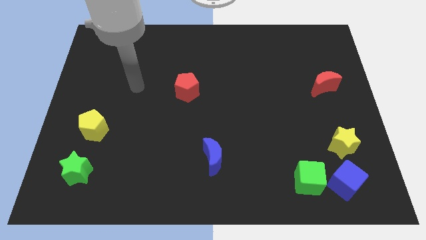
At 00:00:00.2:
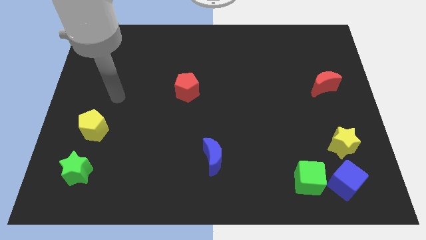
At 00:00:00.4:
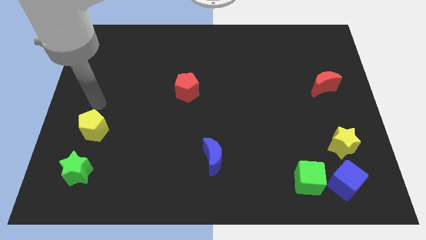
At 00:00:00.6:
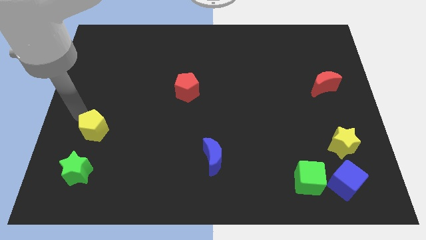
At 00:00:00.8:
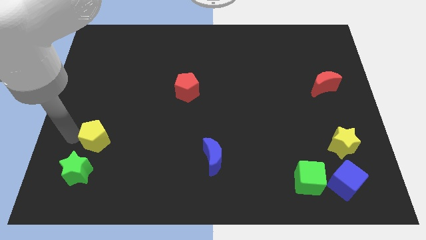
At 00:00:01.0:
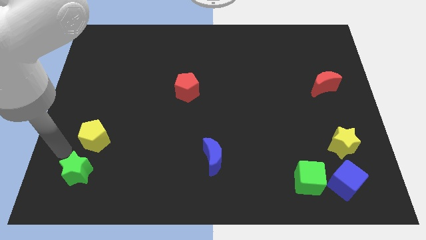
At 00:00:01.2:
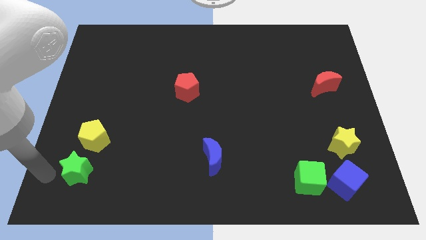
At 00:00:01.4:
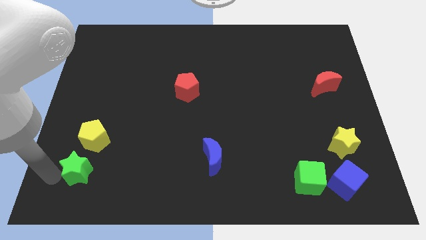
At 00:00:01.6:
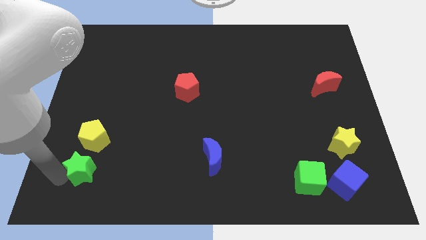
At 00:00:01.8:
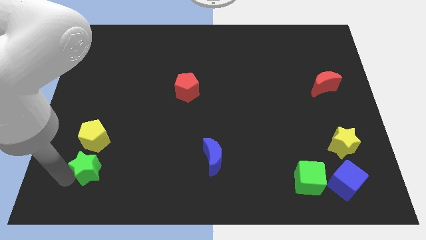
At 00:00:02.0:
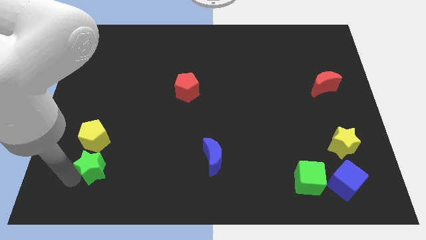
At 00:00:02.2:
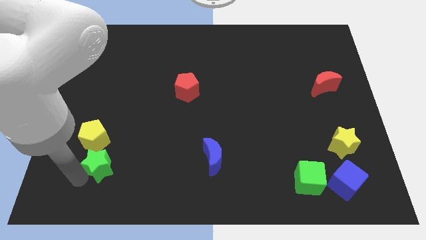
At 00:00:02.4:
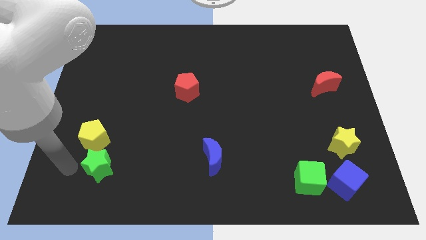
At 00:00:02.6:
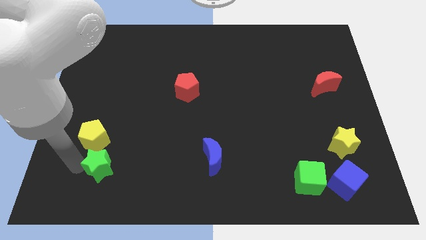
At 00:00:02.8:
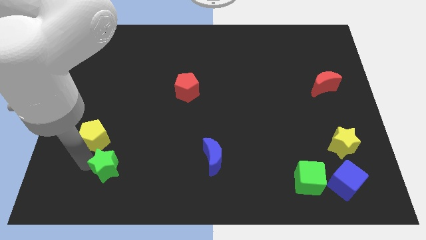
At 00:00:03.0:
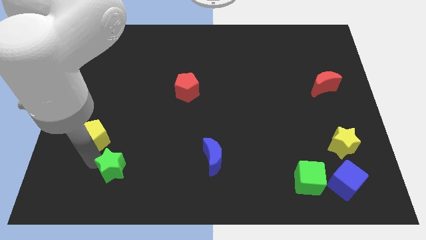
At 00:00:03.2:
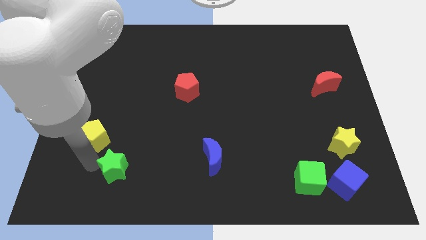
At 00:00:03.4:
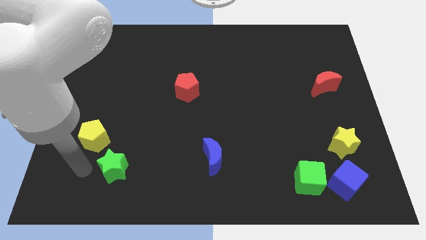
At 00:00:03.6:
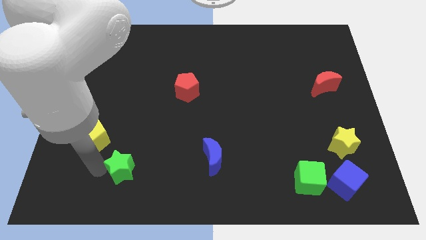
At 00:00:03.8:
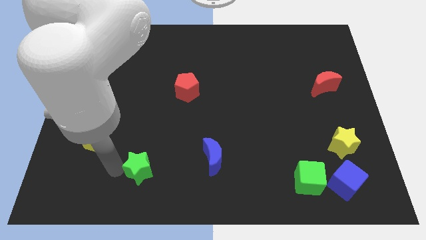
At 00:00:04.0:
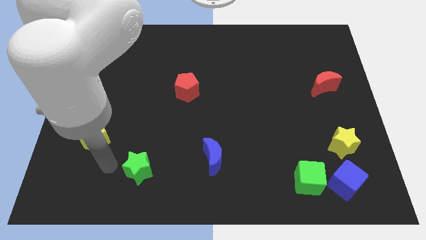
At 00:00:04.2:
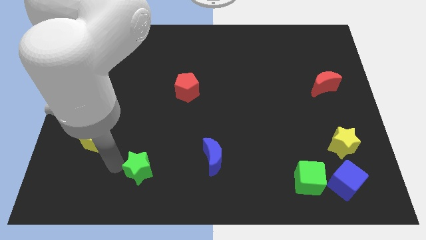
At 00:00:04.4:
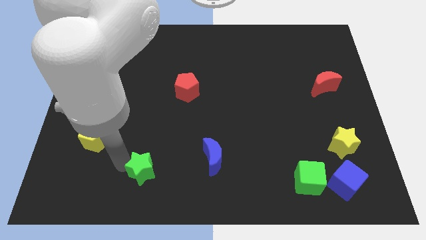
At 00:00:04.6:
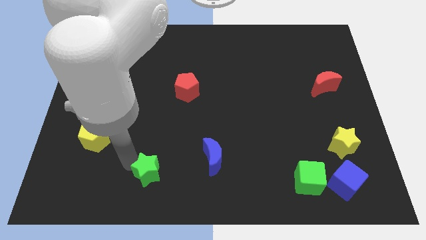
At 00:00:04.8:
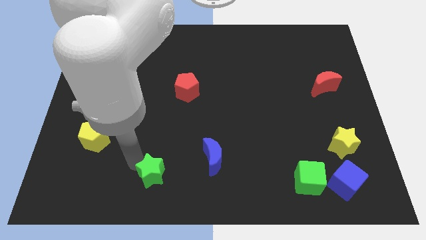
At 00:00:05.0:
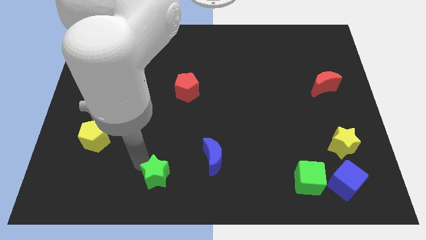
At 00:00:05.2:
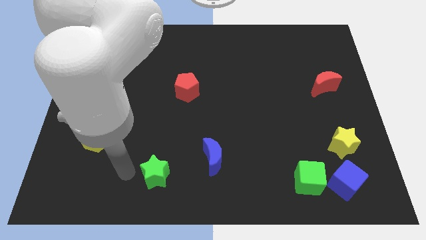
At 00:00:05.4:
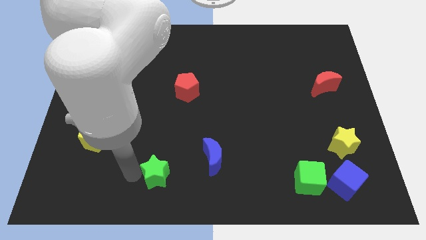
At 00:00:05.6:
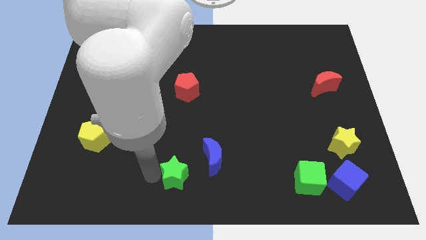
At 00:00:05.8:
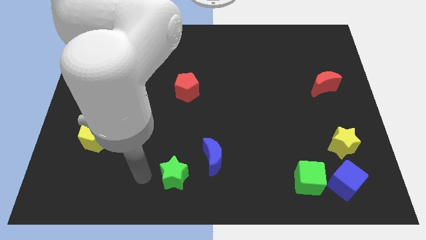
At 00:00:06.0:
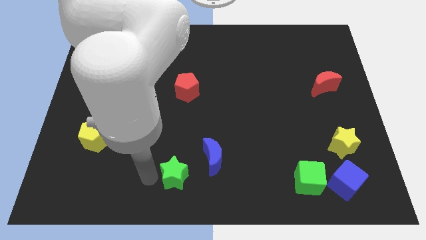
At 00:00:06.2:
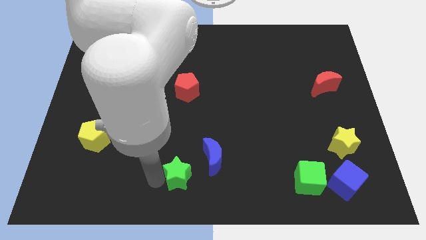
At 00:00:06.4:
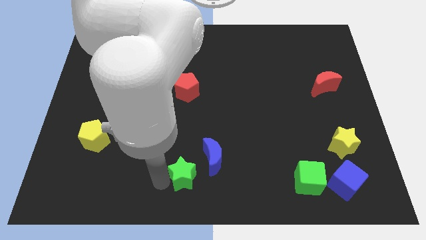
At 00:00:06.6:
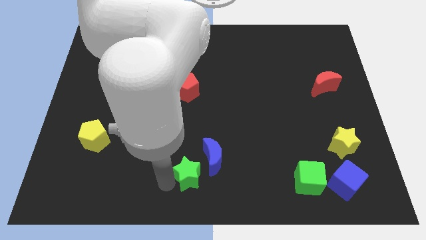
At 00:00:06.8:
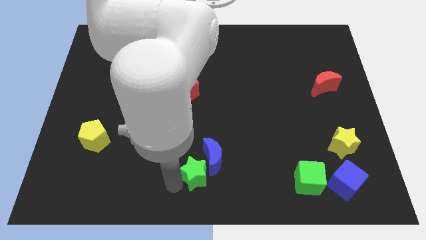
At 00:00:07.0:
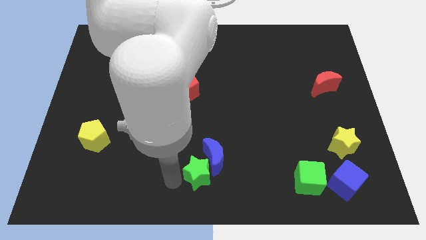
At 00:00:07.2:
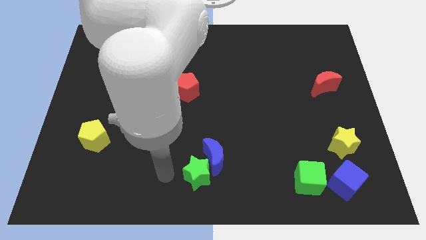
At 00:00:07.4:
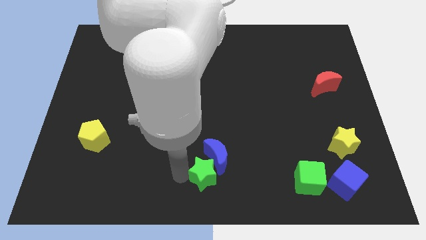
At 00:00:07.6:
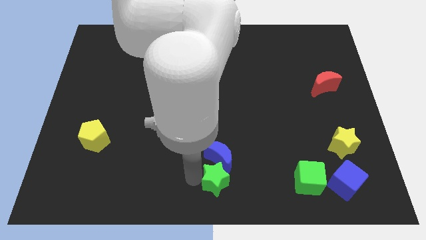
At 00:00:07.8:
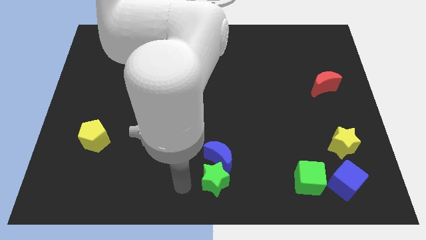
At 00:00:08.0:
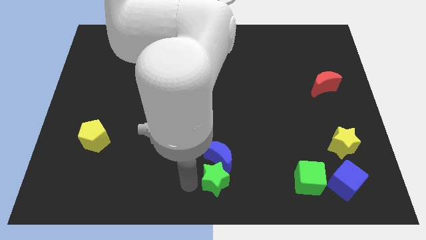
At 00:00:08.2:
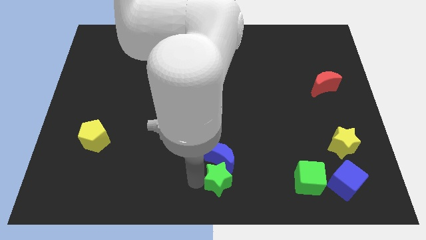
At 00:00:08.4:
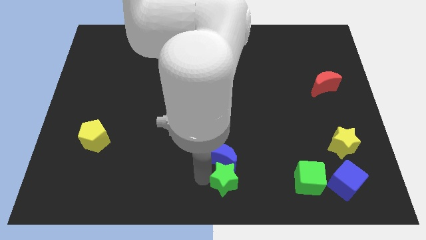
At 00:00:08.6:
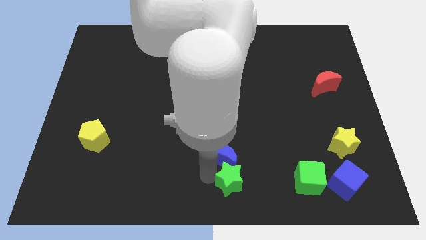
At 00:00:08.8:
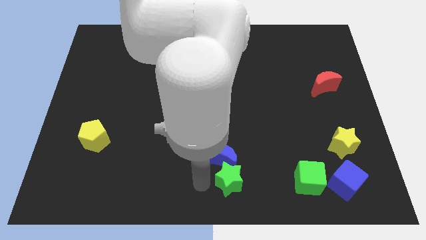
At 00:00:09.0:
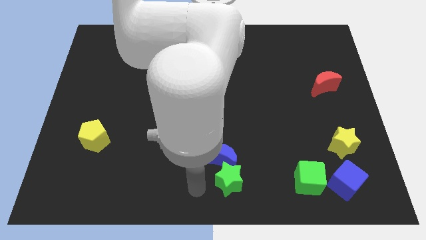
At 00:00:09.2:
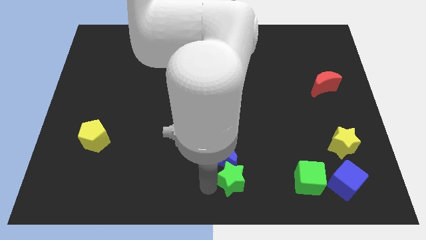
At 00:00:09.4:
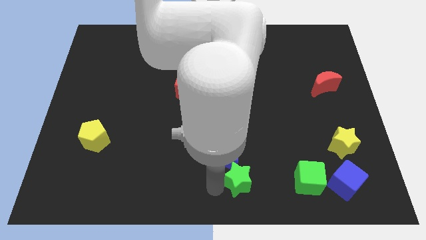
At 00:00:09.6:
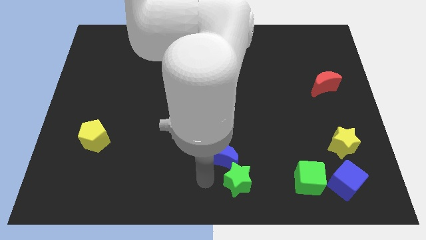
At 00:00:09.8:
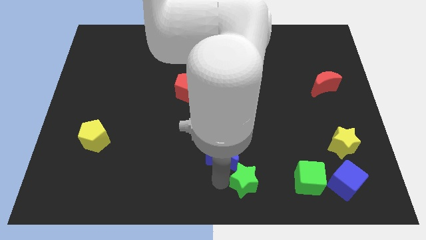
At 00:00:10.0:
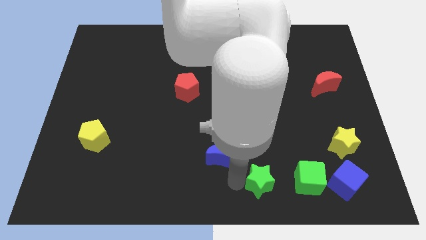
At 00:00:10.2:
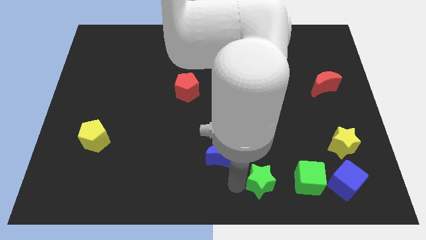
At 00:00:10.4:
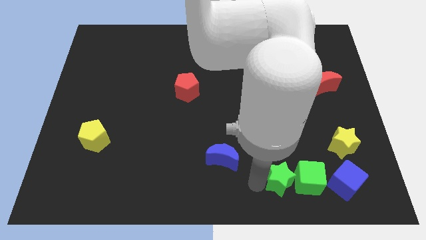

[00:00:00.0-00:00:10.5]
slide the green star next to the green cube

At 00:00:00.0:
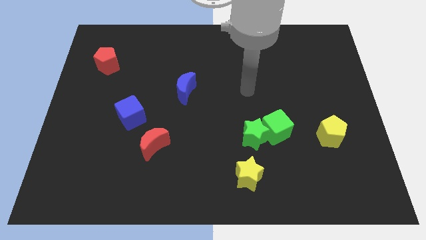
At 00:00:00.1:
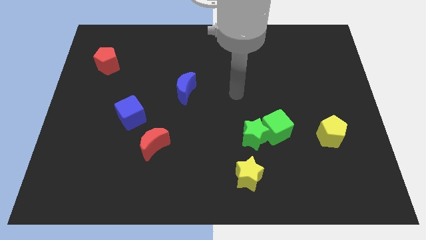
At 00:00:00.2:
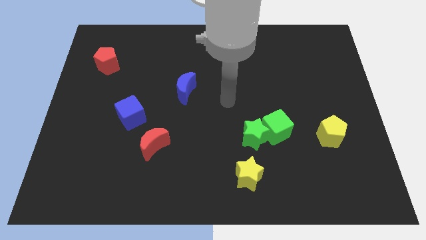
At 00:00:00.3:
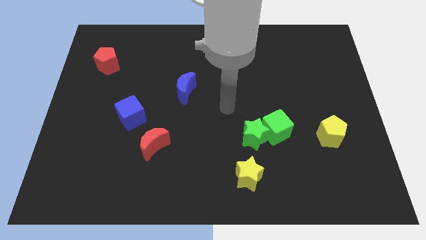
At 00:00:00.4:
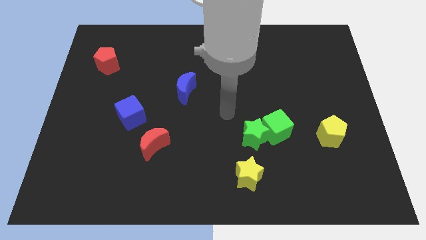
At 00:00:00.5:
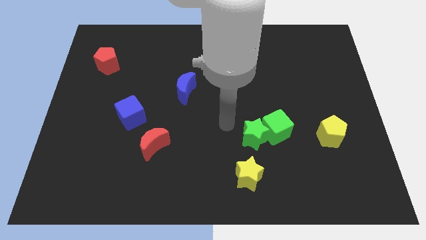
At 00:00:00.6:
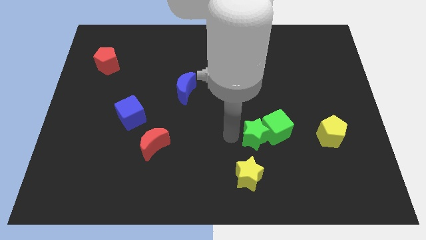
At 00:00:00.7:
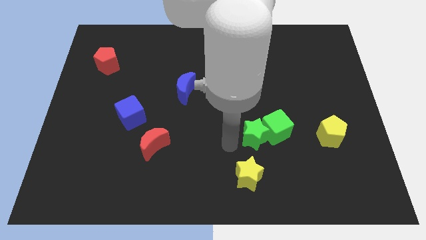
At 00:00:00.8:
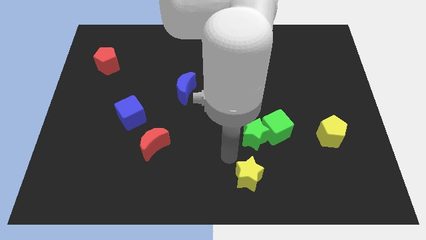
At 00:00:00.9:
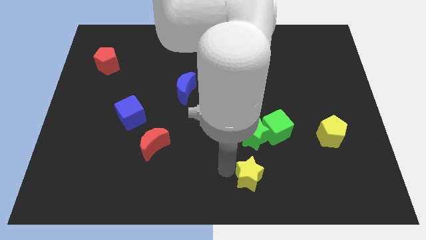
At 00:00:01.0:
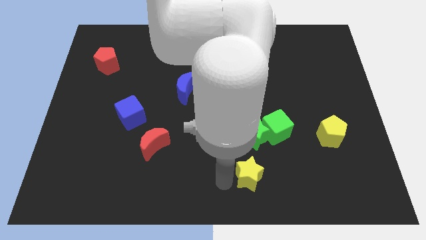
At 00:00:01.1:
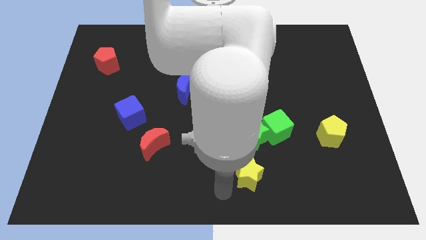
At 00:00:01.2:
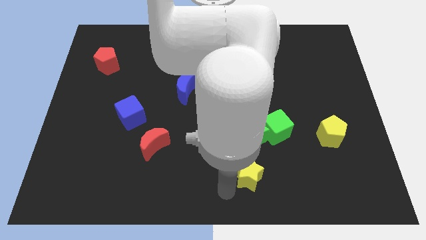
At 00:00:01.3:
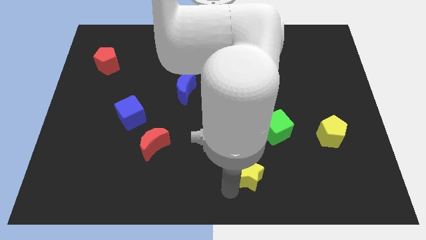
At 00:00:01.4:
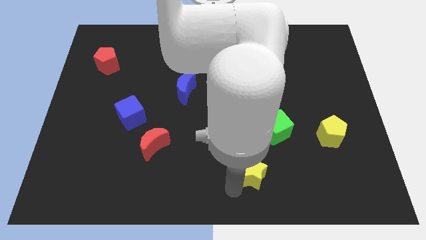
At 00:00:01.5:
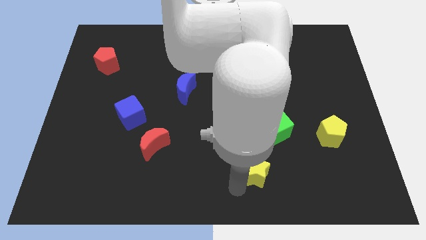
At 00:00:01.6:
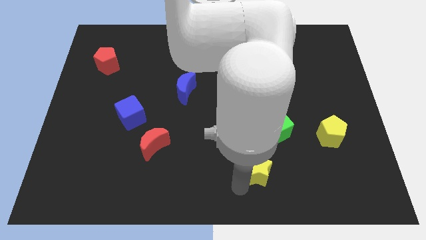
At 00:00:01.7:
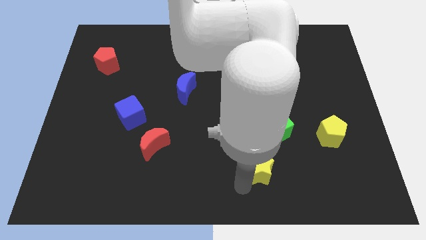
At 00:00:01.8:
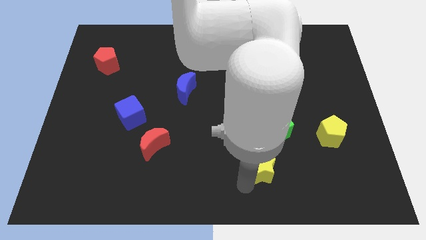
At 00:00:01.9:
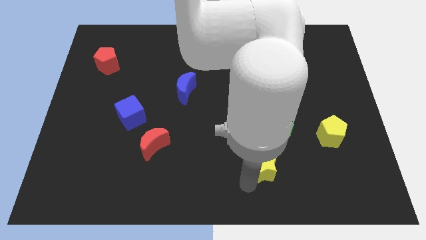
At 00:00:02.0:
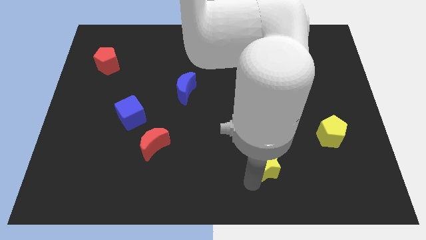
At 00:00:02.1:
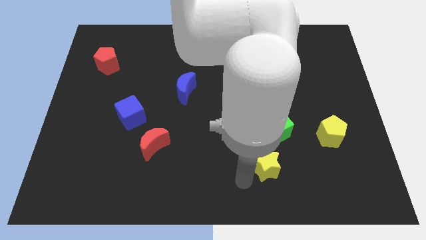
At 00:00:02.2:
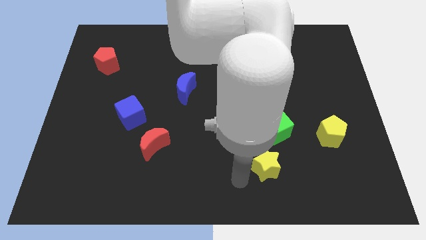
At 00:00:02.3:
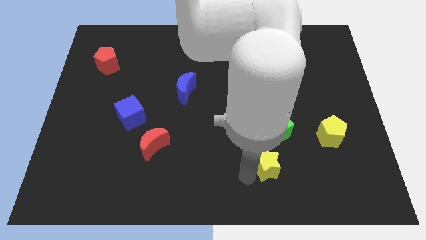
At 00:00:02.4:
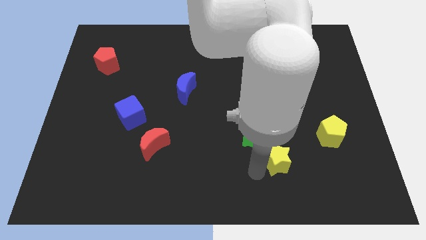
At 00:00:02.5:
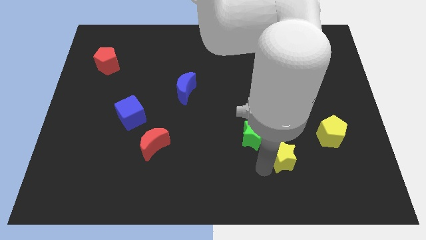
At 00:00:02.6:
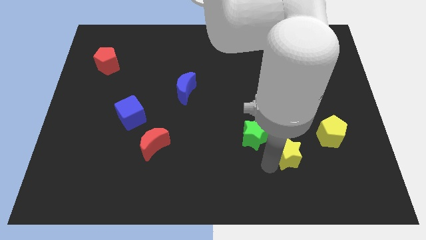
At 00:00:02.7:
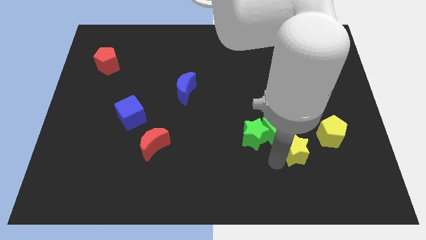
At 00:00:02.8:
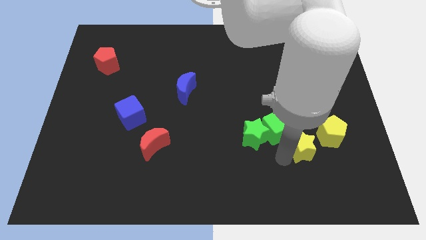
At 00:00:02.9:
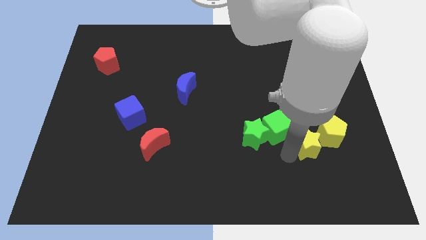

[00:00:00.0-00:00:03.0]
put the yellow star close to the yellow pentagon
